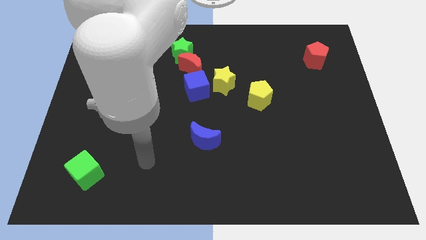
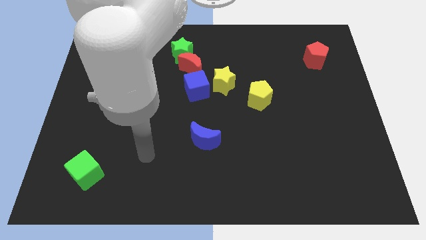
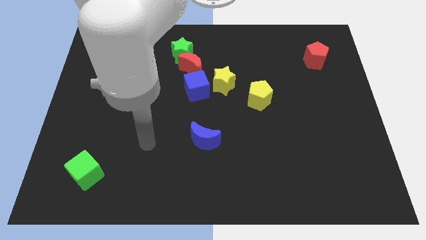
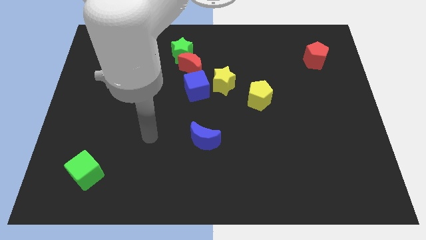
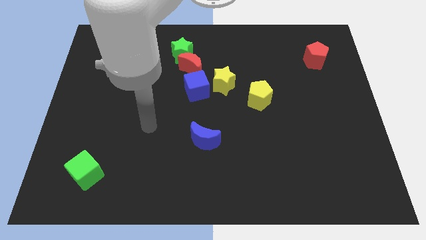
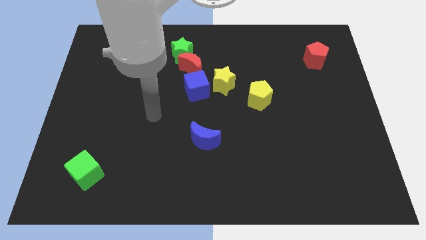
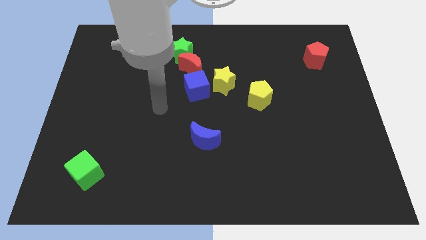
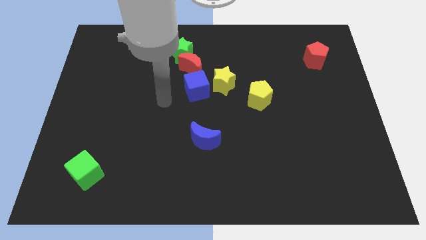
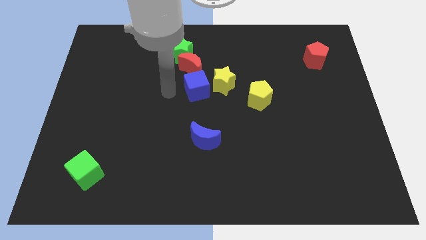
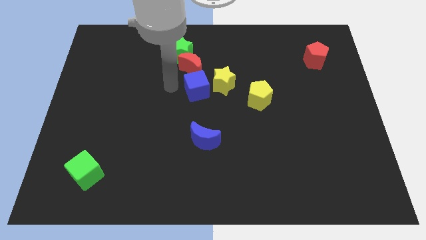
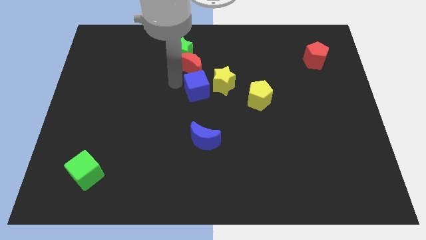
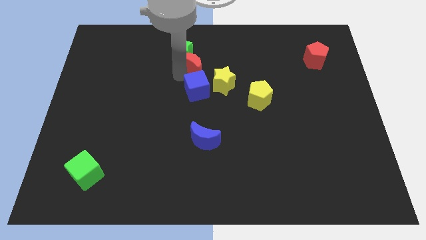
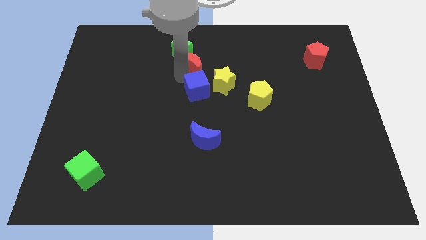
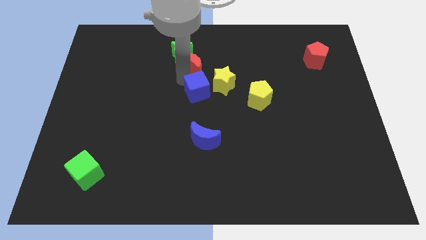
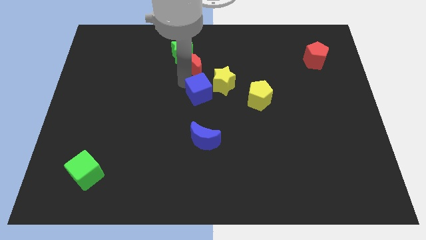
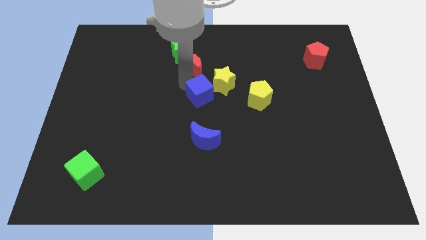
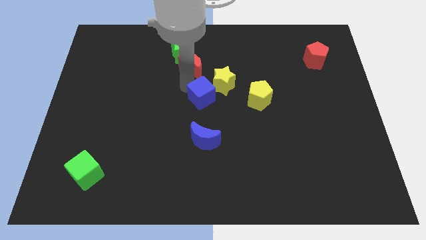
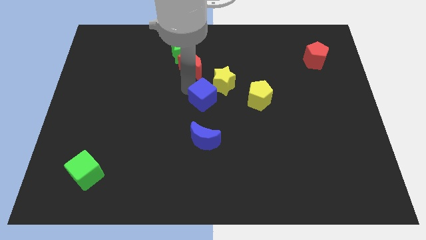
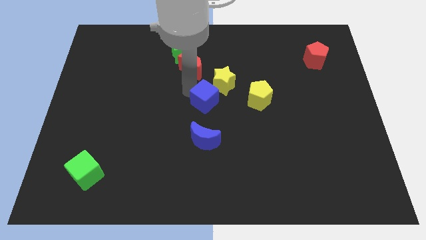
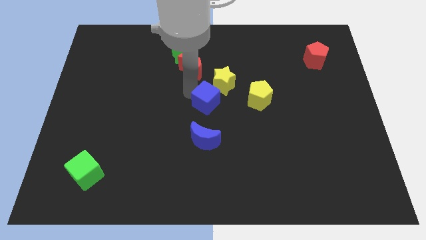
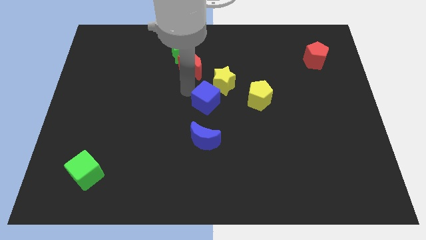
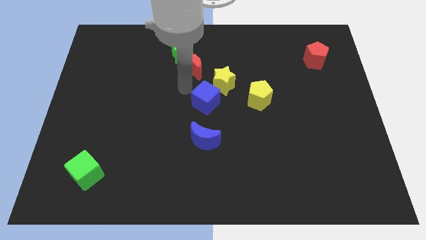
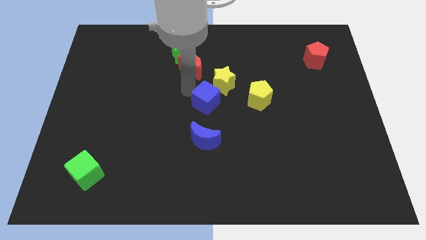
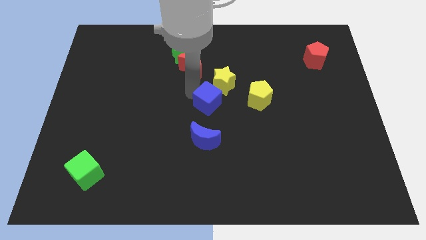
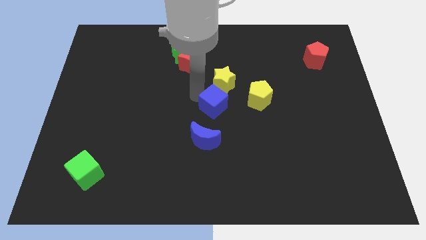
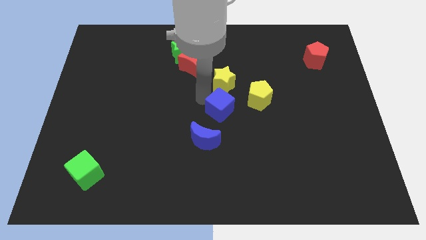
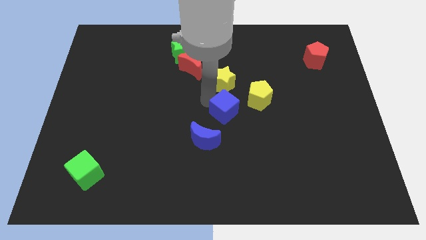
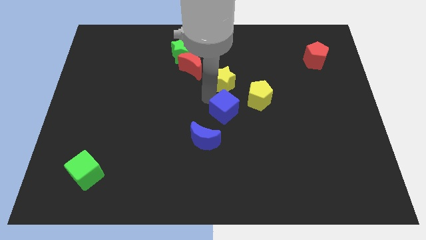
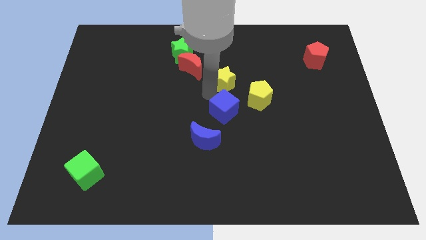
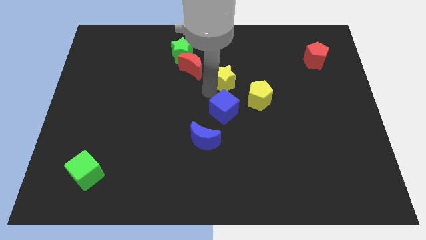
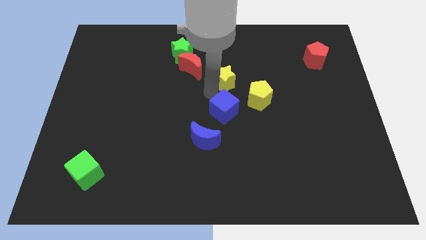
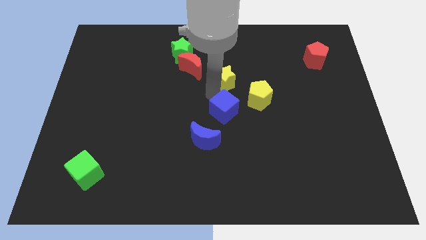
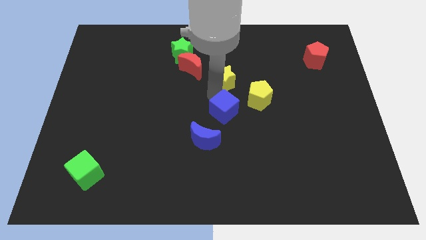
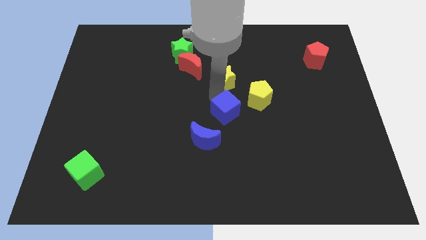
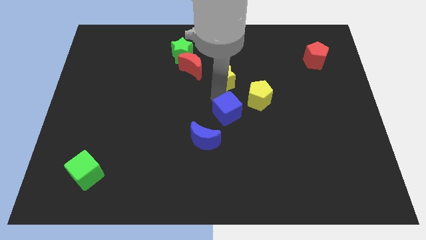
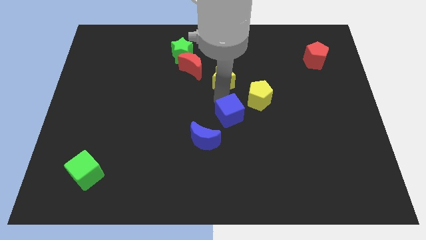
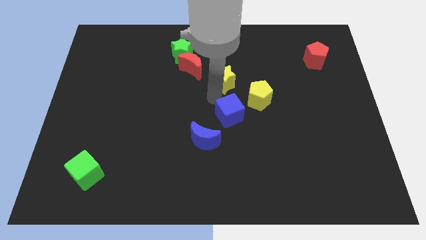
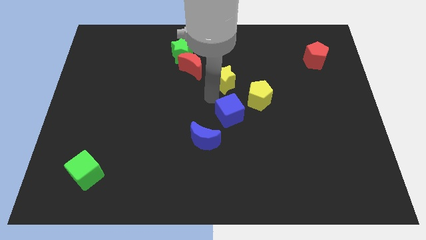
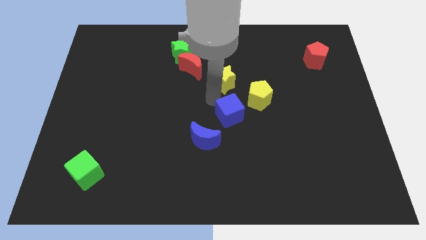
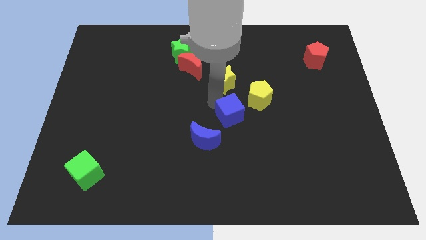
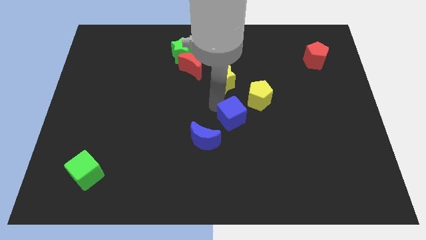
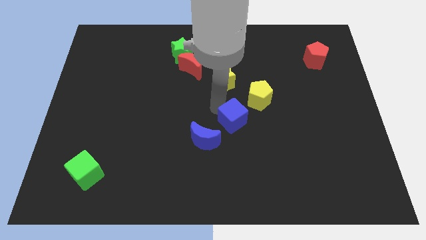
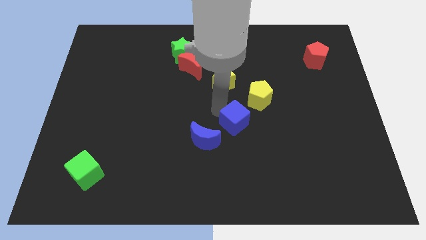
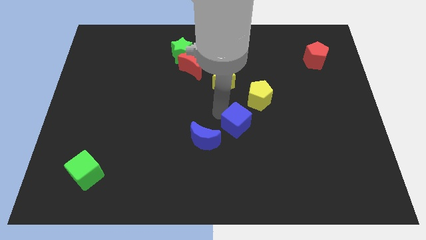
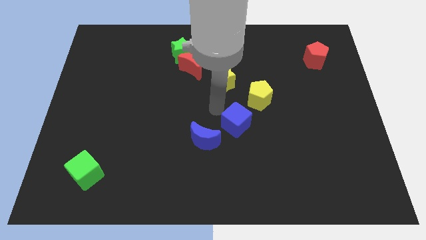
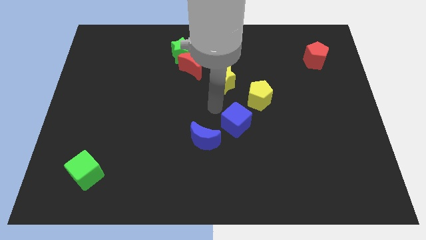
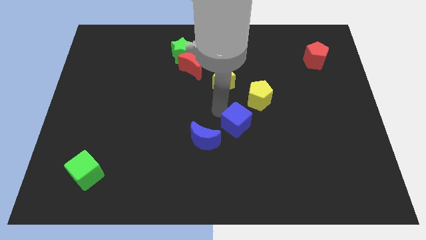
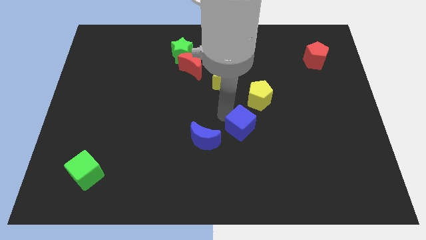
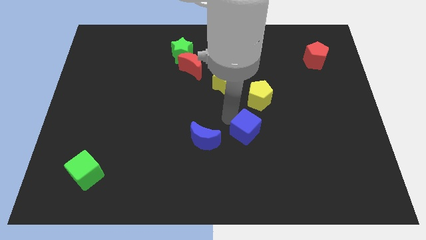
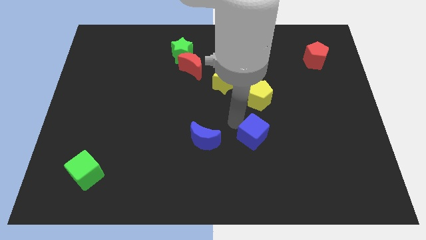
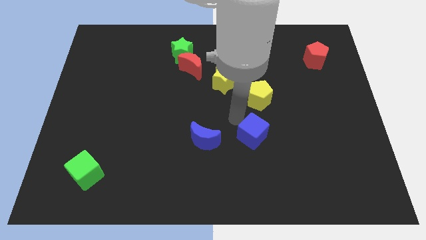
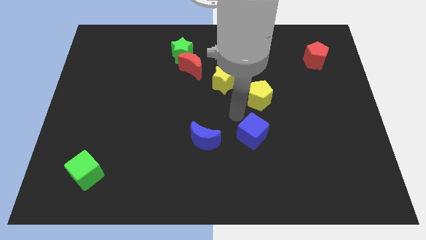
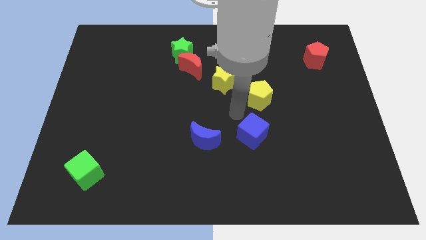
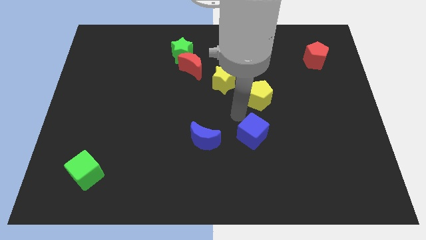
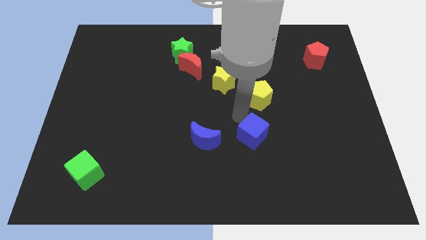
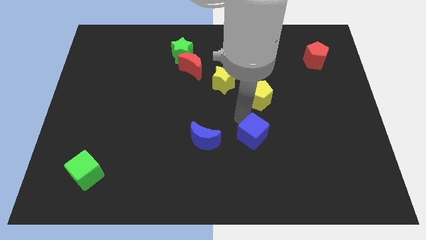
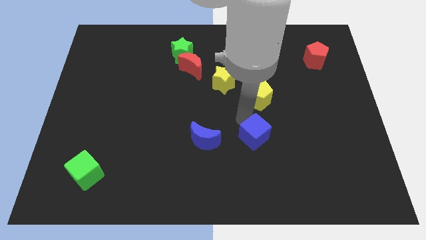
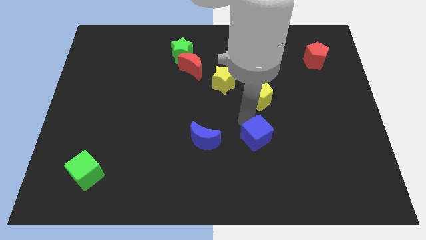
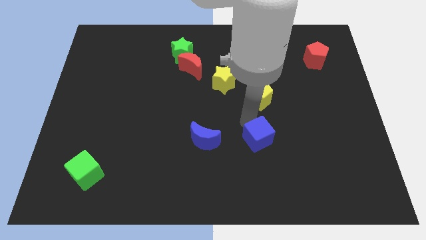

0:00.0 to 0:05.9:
move the blue cube downwards and then to the right

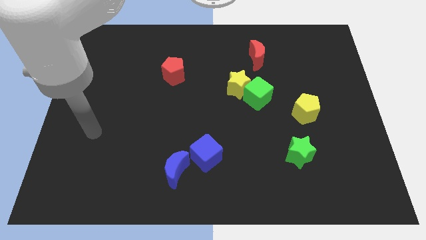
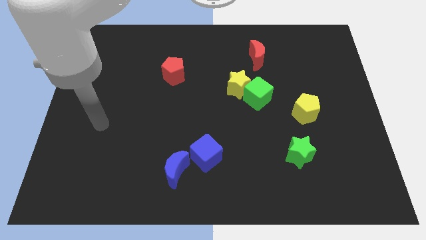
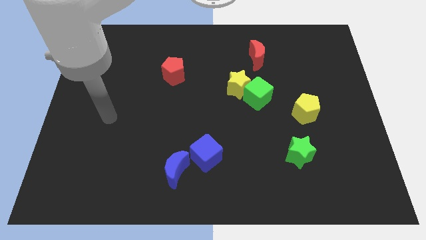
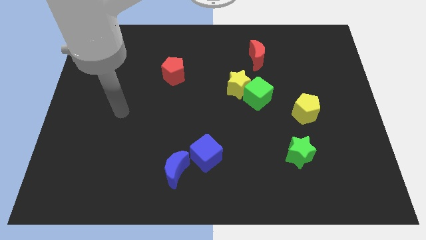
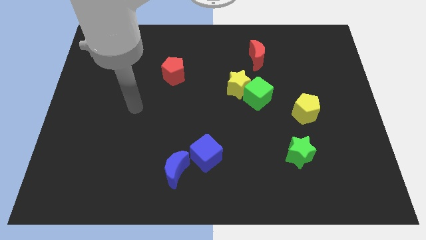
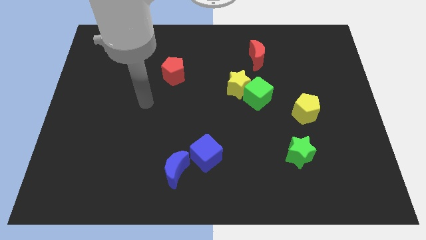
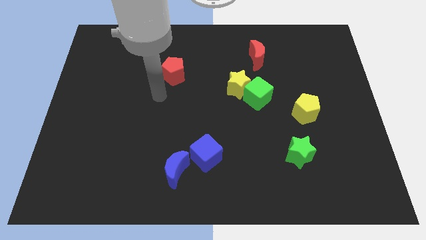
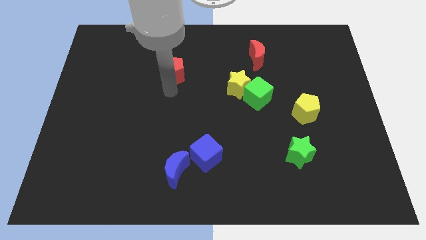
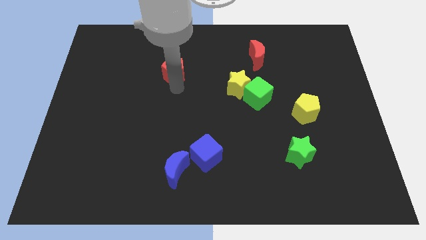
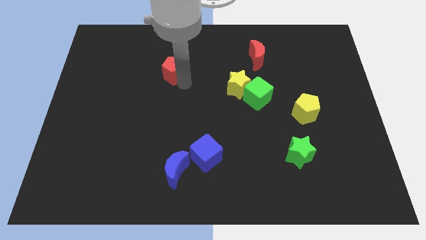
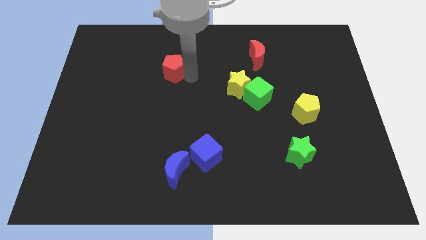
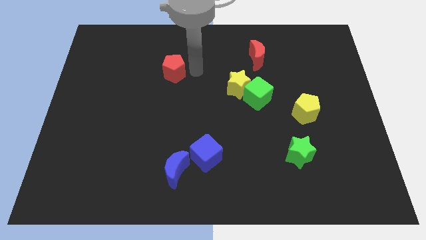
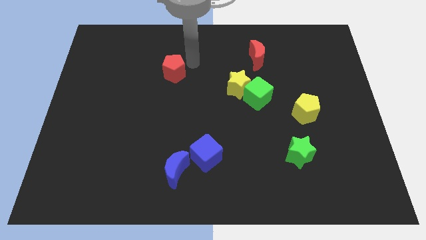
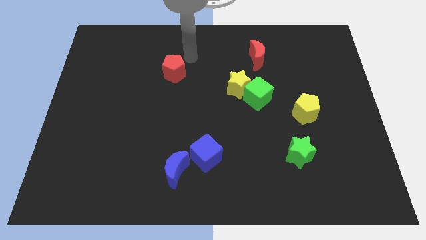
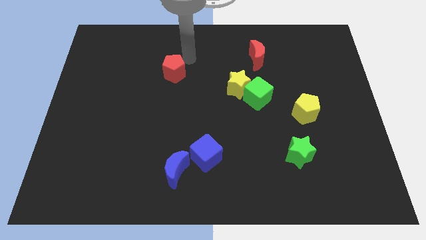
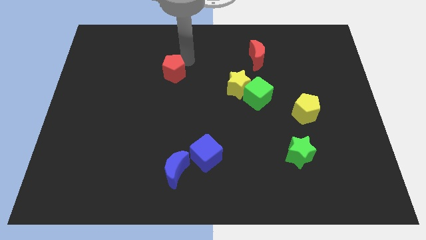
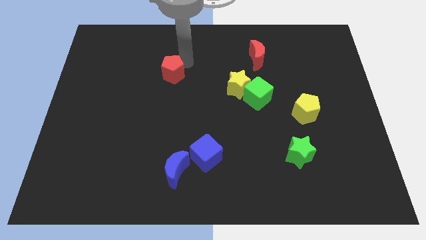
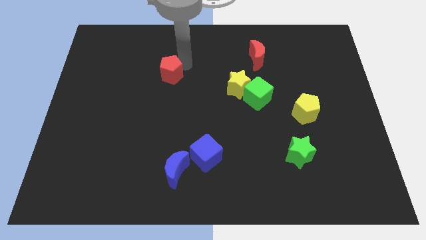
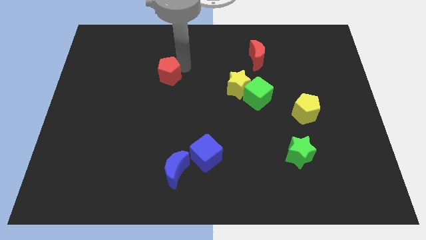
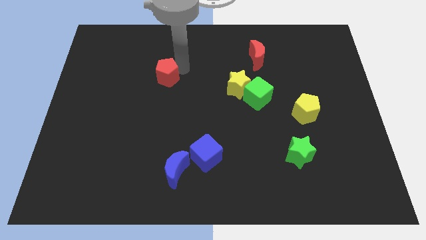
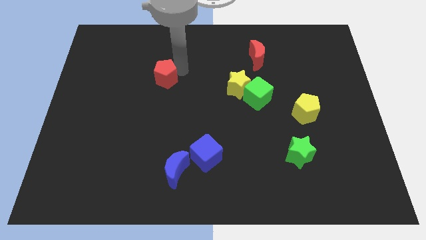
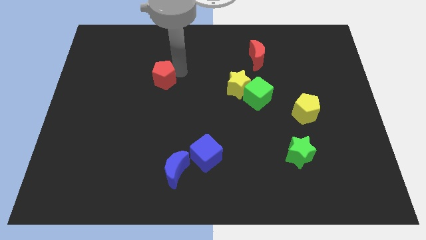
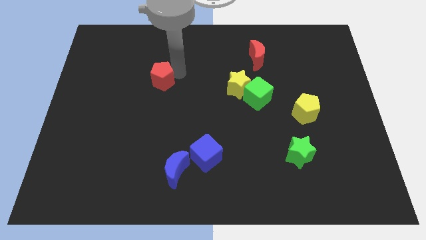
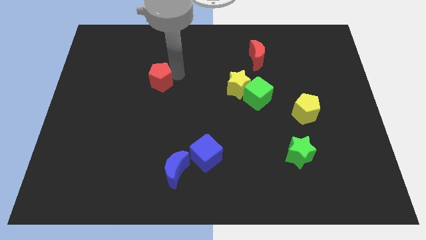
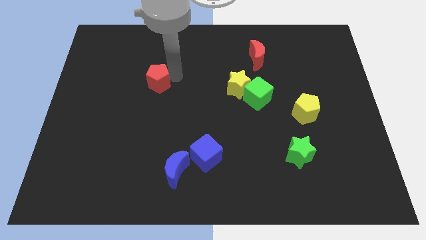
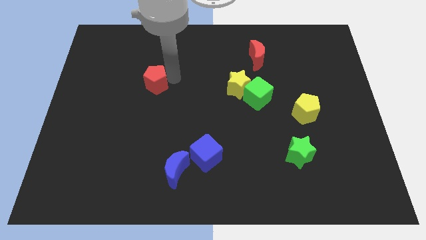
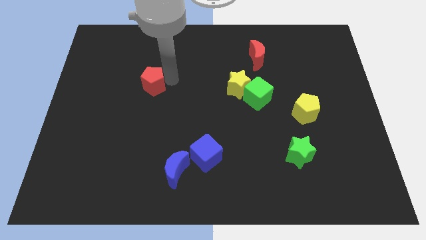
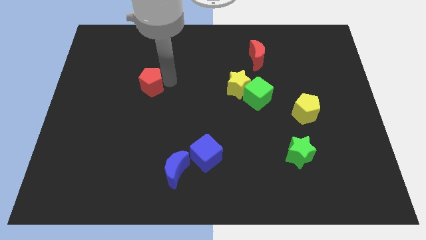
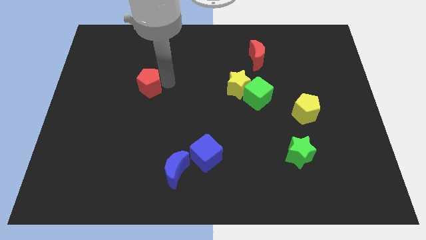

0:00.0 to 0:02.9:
move the red pentagon diagonally downwards and to the left a little bit
